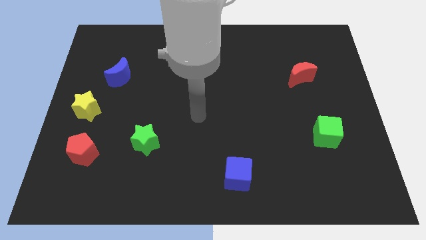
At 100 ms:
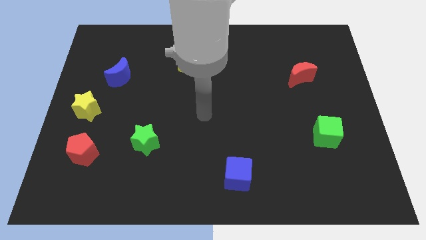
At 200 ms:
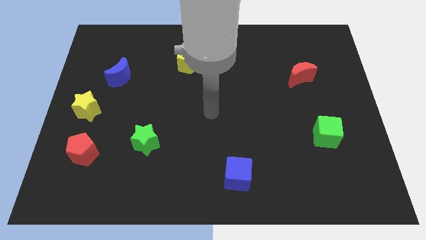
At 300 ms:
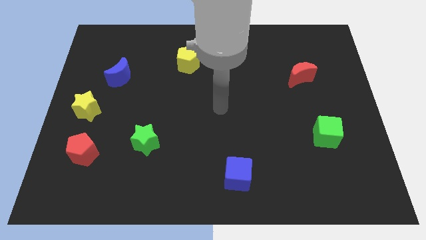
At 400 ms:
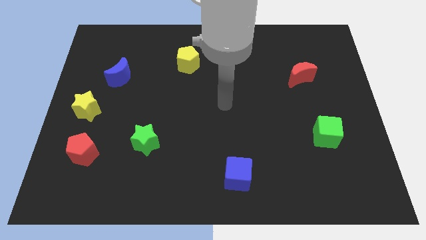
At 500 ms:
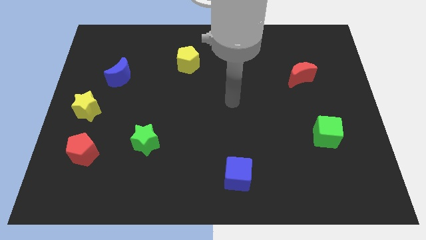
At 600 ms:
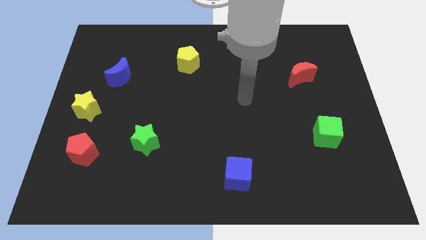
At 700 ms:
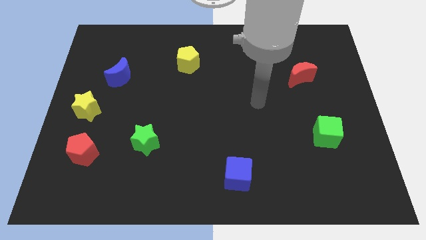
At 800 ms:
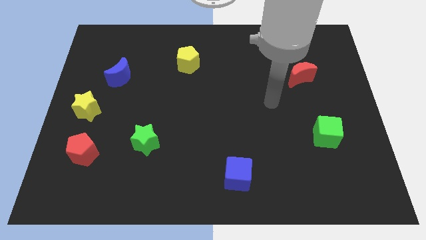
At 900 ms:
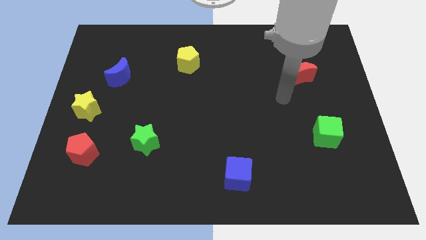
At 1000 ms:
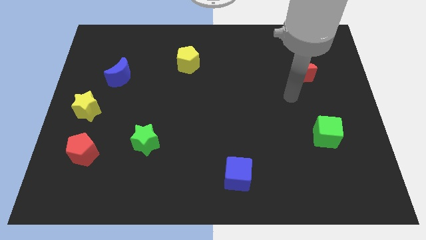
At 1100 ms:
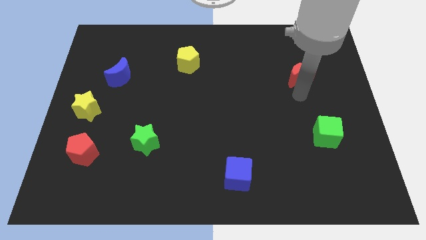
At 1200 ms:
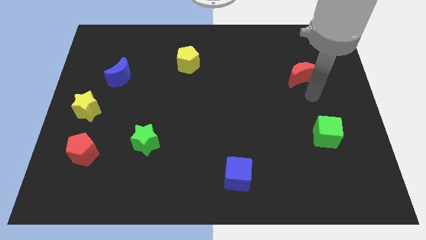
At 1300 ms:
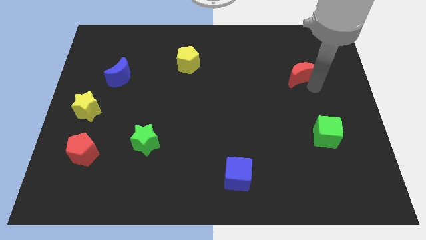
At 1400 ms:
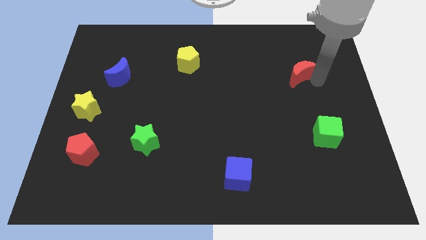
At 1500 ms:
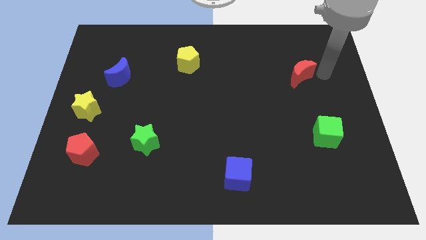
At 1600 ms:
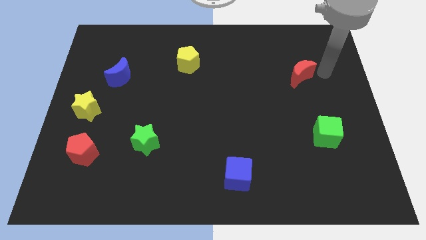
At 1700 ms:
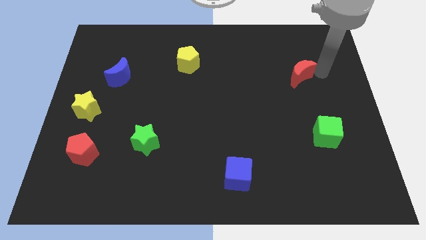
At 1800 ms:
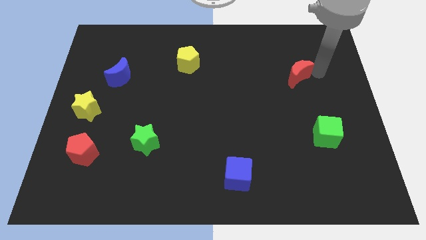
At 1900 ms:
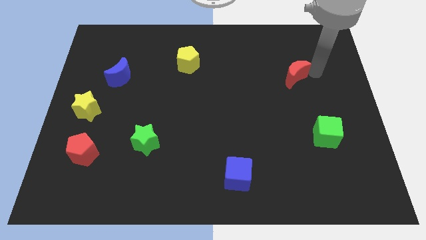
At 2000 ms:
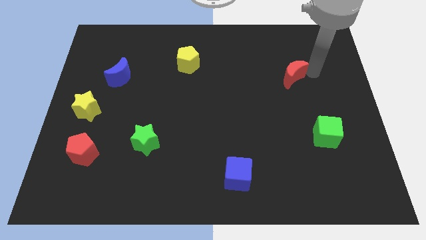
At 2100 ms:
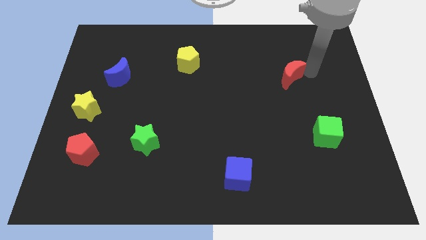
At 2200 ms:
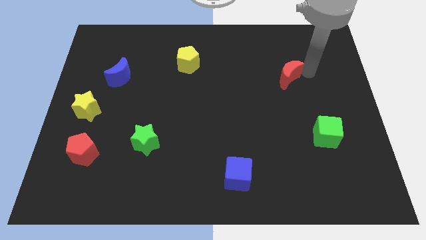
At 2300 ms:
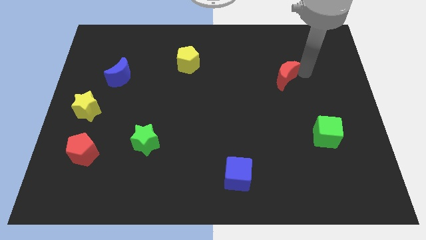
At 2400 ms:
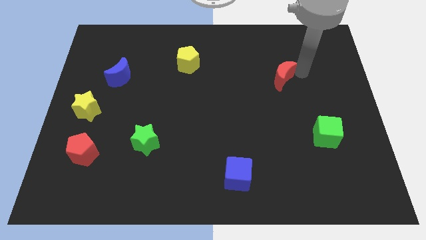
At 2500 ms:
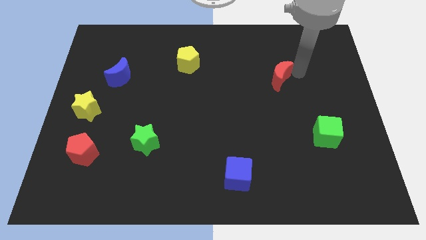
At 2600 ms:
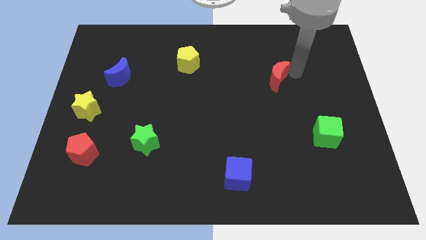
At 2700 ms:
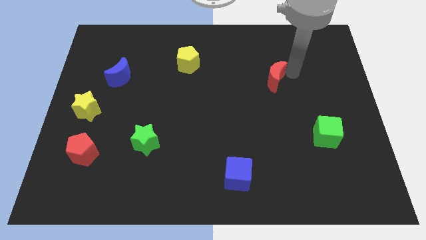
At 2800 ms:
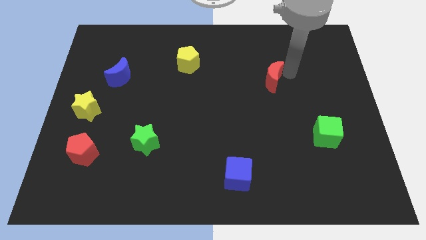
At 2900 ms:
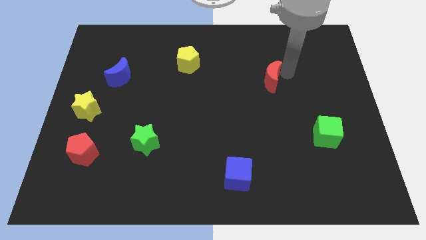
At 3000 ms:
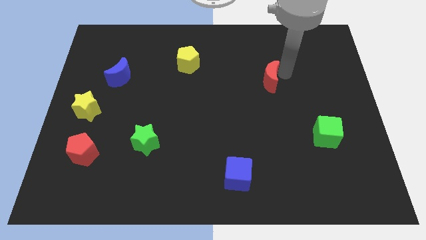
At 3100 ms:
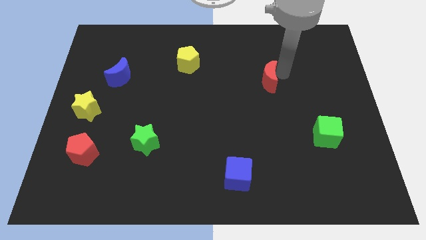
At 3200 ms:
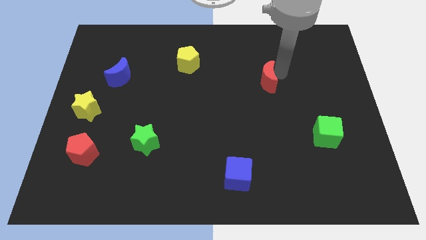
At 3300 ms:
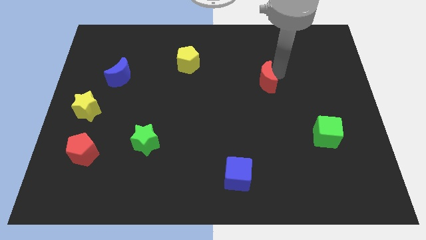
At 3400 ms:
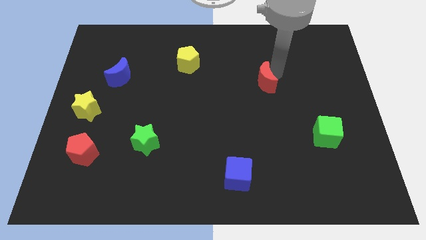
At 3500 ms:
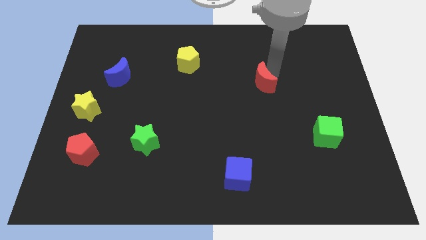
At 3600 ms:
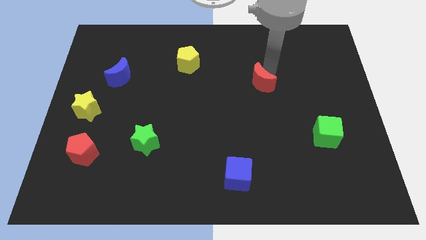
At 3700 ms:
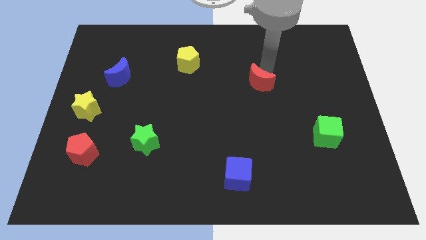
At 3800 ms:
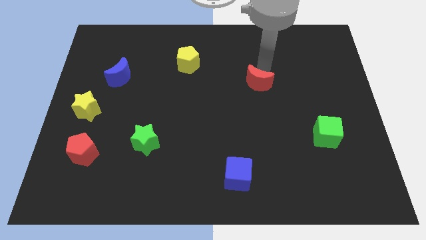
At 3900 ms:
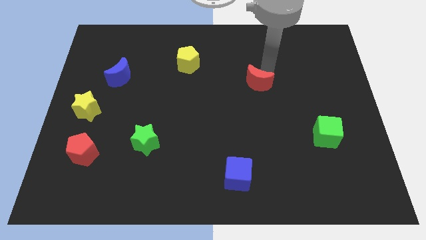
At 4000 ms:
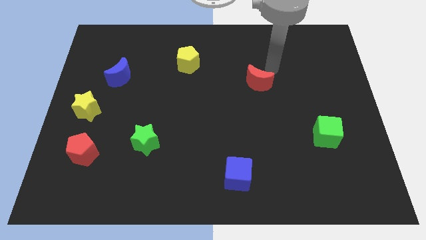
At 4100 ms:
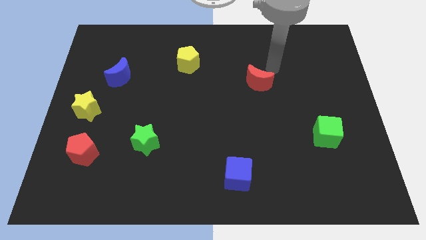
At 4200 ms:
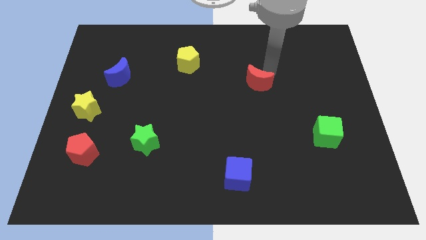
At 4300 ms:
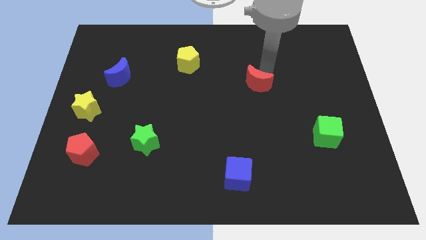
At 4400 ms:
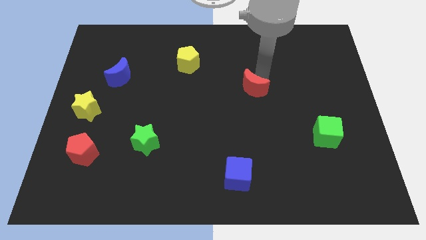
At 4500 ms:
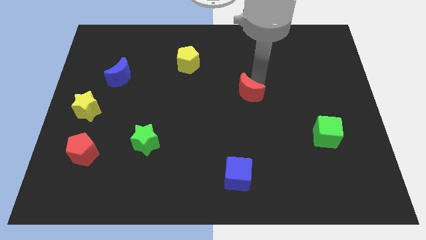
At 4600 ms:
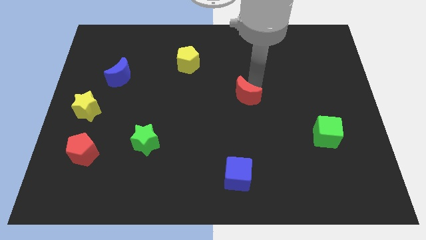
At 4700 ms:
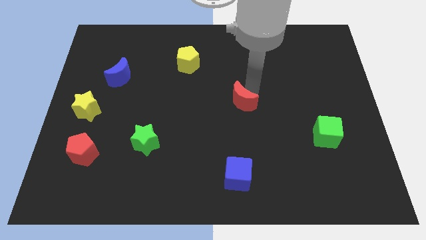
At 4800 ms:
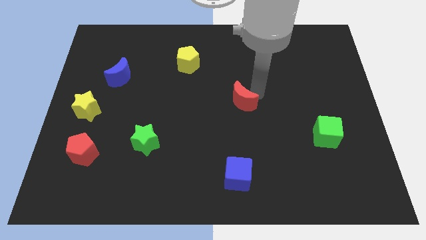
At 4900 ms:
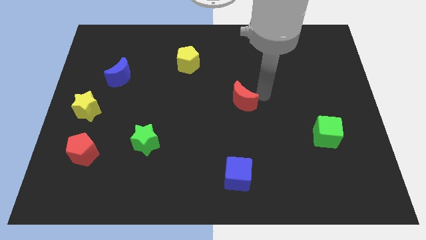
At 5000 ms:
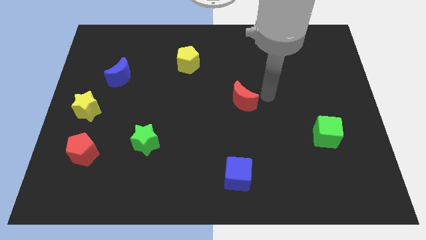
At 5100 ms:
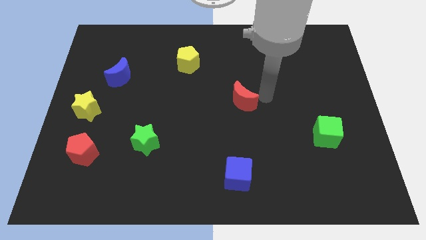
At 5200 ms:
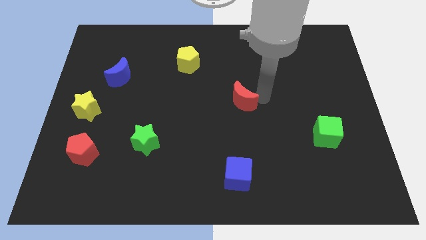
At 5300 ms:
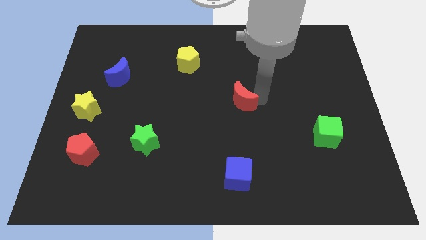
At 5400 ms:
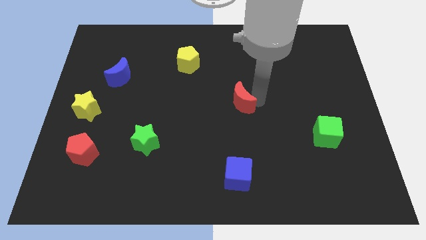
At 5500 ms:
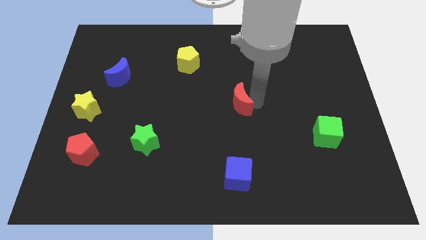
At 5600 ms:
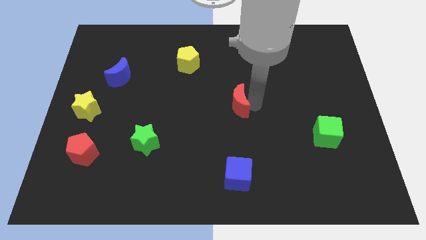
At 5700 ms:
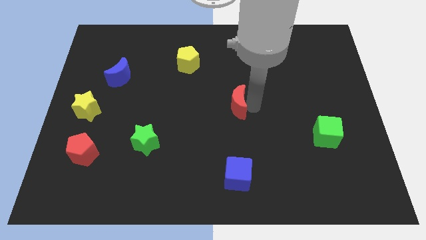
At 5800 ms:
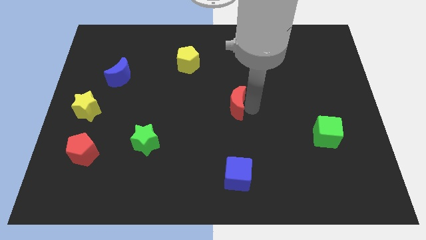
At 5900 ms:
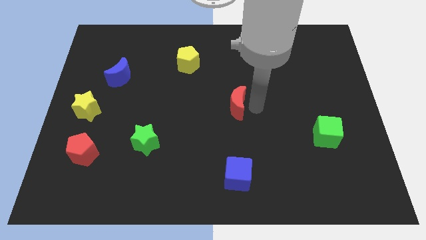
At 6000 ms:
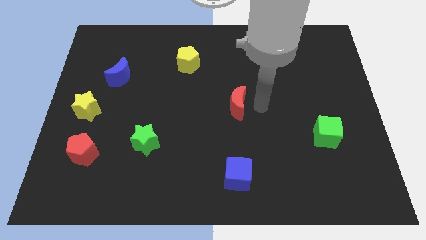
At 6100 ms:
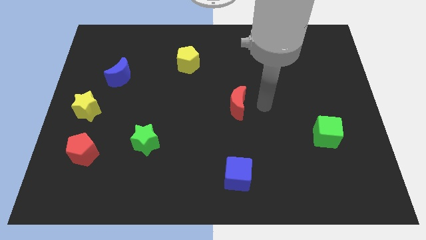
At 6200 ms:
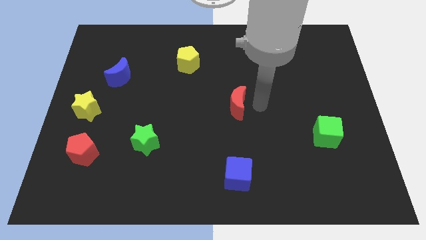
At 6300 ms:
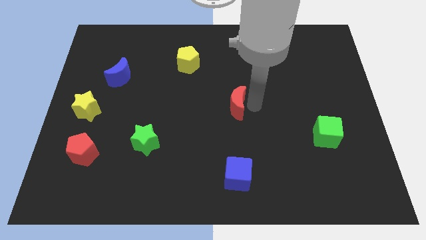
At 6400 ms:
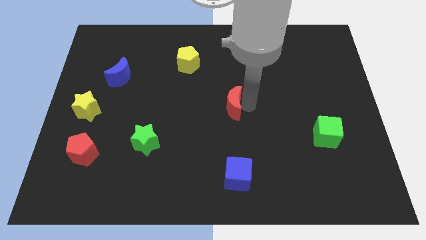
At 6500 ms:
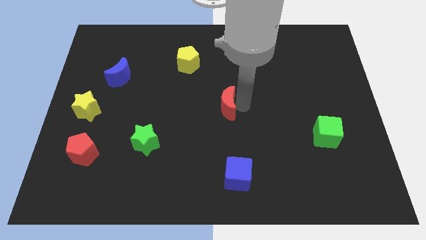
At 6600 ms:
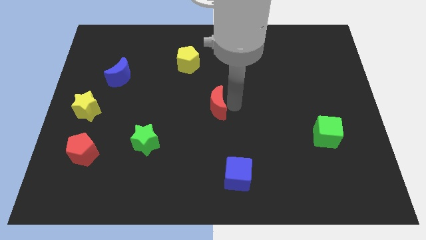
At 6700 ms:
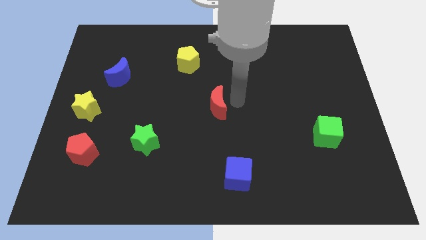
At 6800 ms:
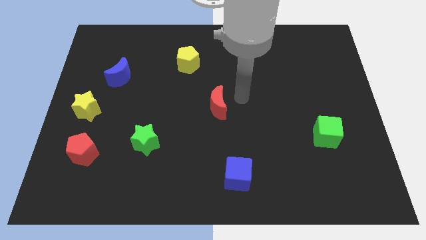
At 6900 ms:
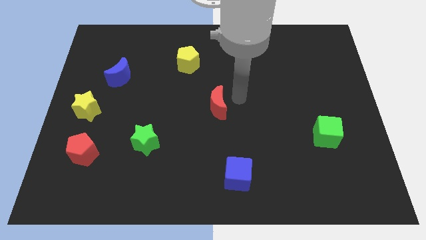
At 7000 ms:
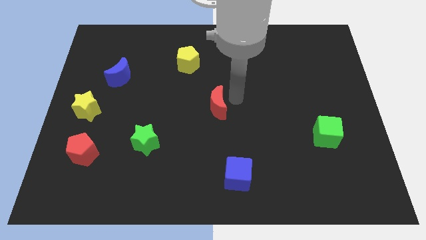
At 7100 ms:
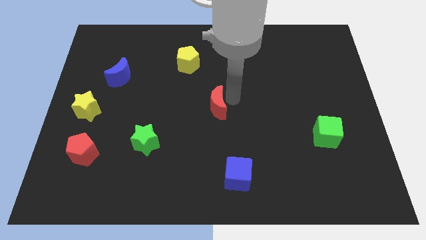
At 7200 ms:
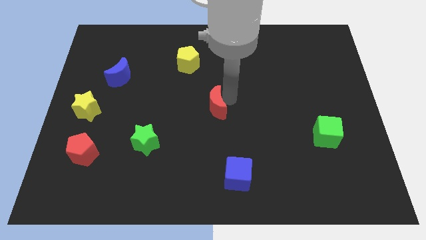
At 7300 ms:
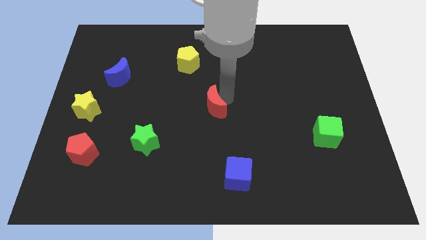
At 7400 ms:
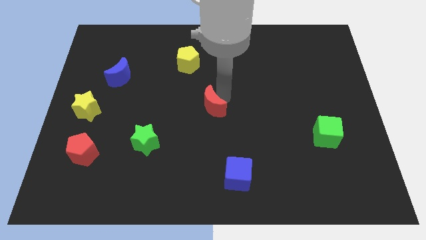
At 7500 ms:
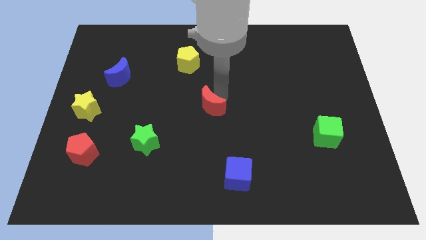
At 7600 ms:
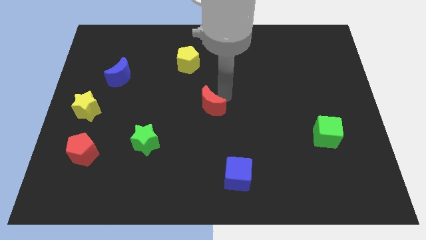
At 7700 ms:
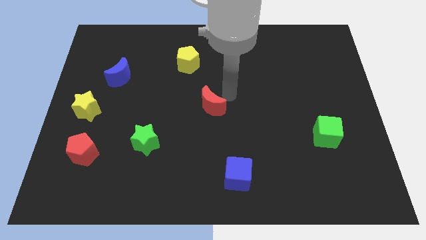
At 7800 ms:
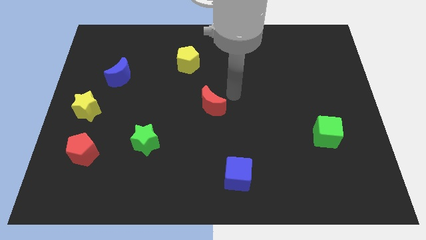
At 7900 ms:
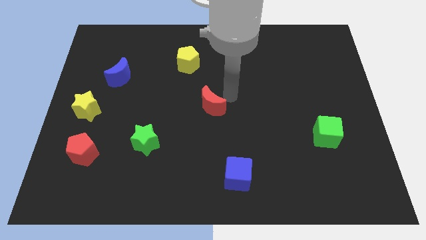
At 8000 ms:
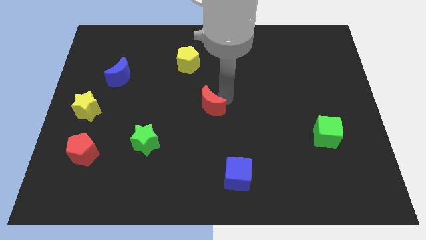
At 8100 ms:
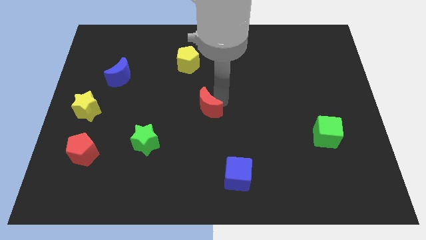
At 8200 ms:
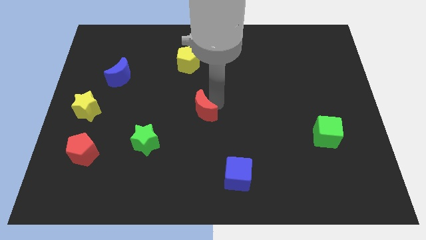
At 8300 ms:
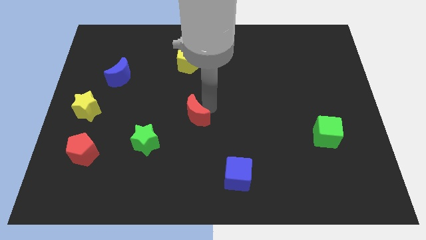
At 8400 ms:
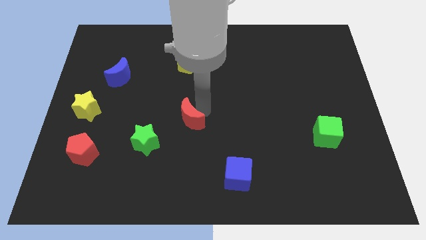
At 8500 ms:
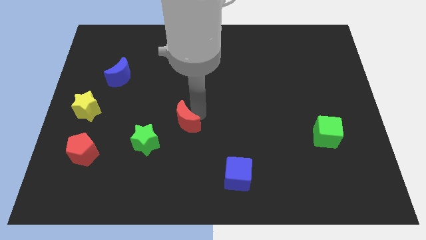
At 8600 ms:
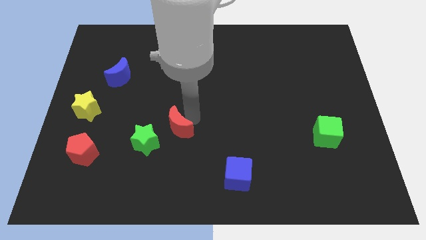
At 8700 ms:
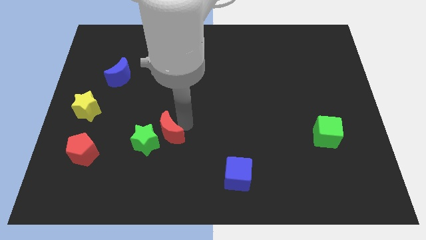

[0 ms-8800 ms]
put the red moon towards the green star
